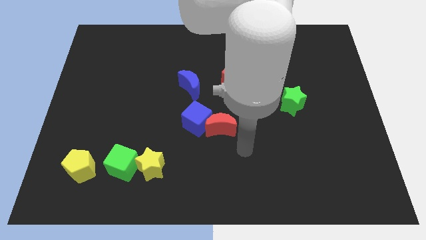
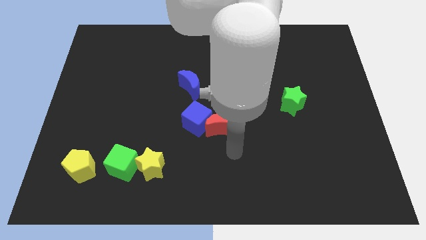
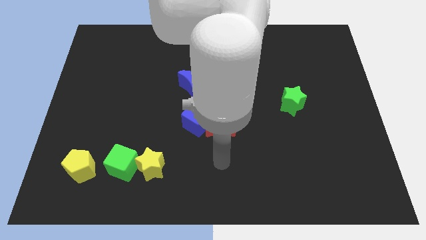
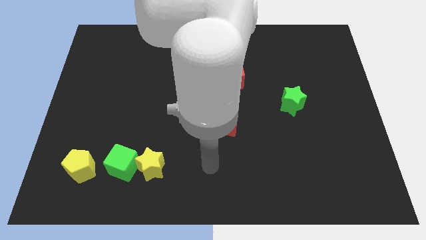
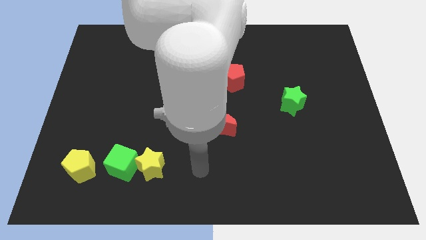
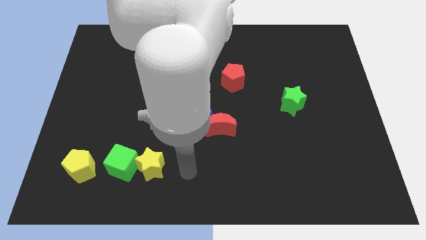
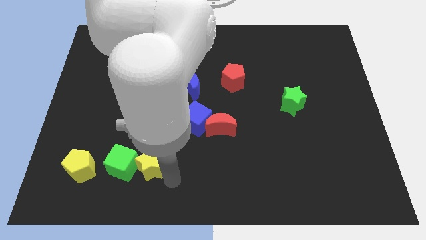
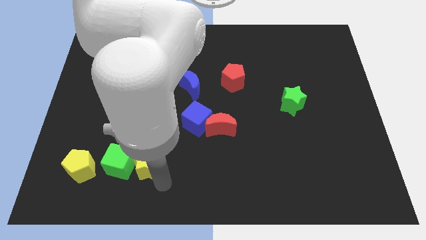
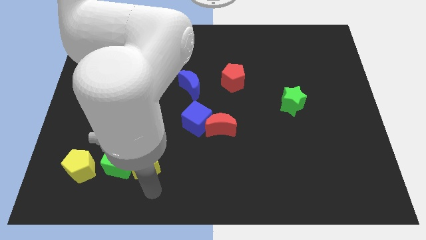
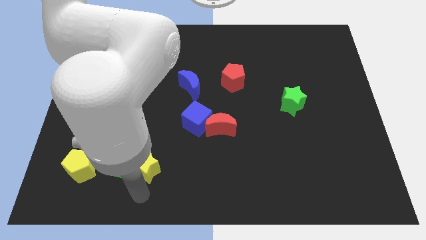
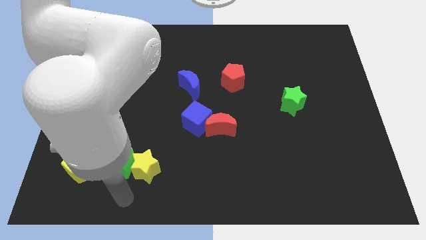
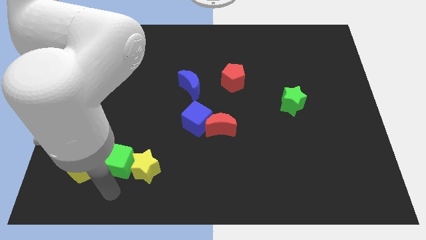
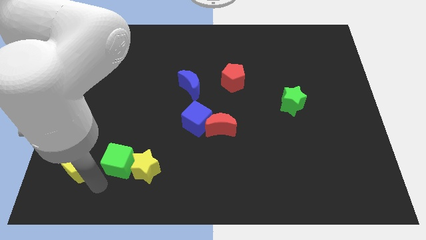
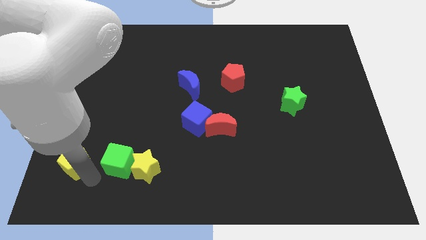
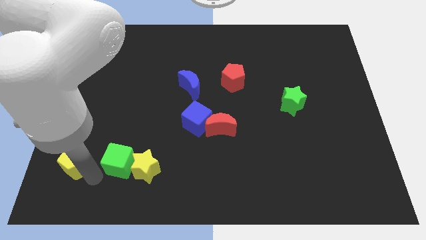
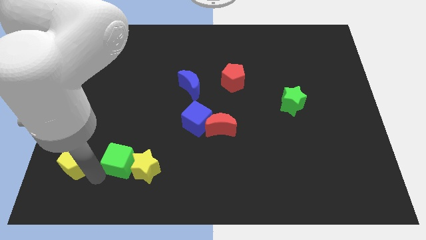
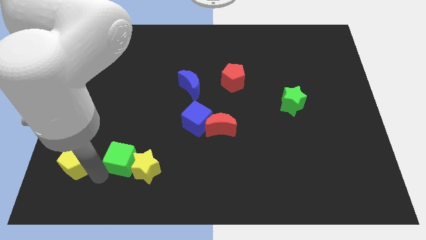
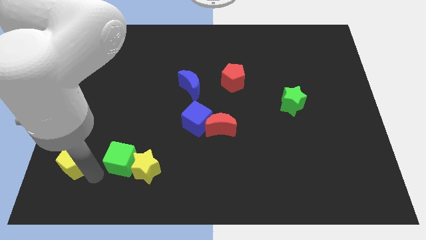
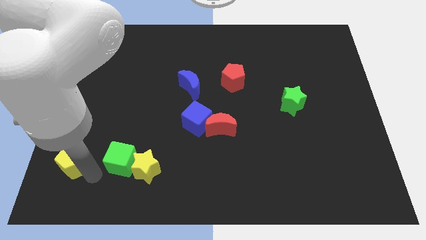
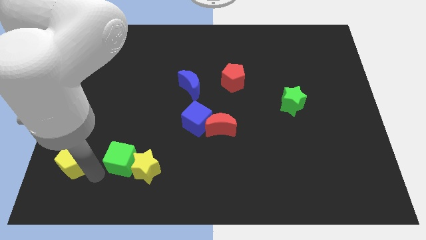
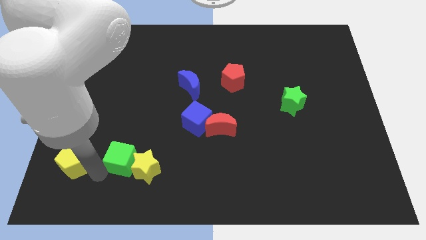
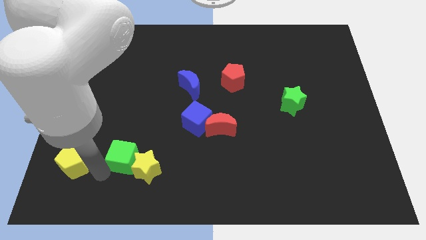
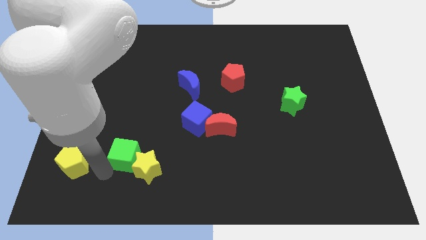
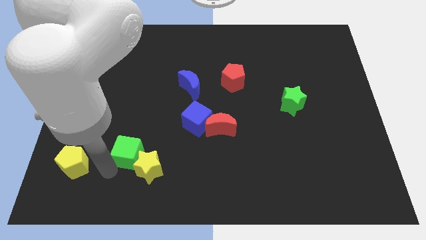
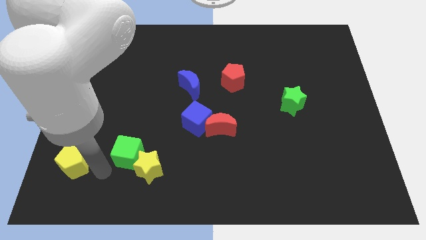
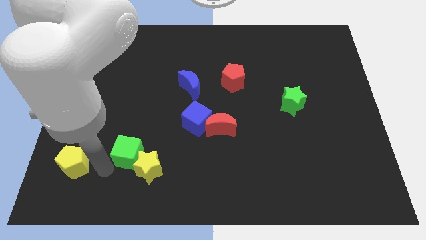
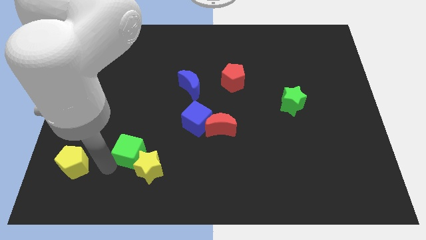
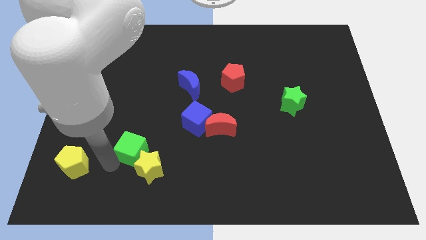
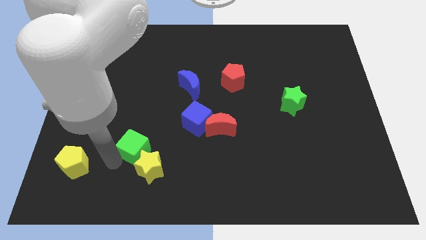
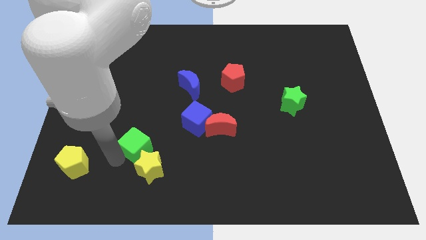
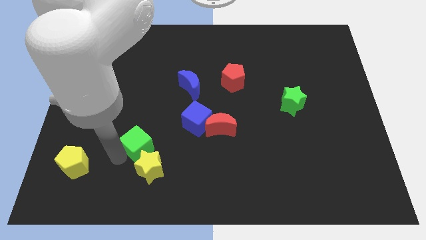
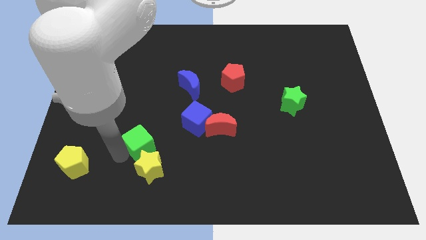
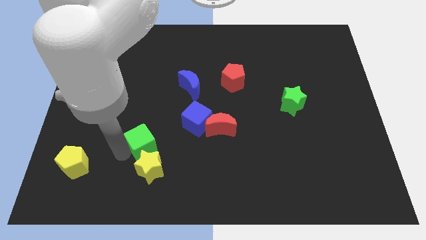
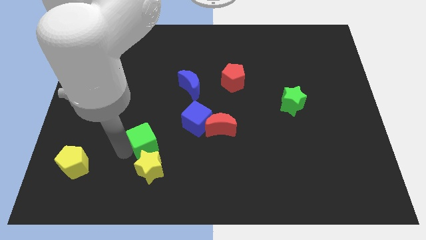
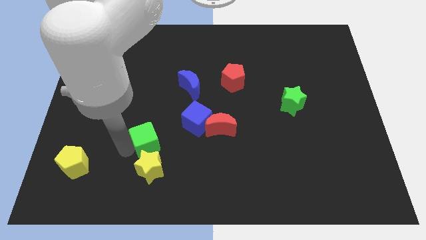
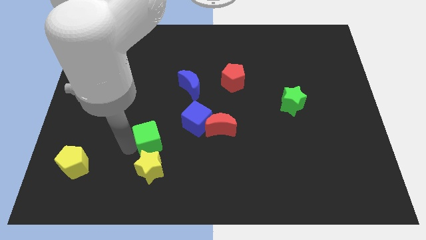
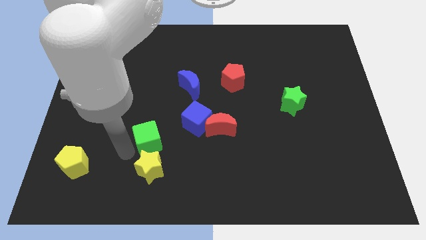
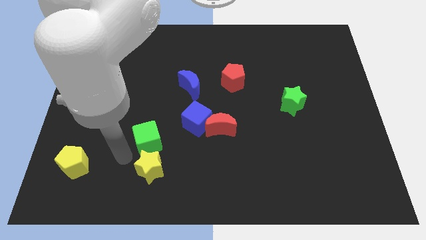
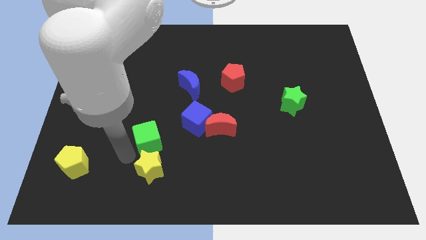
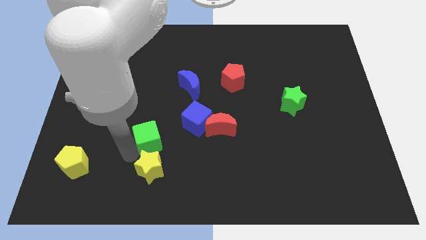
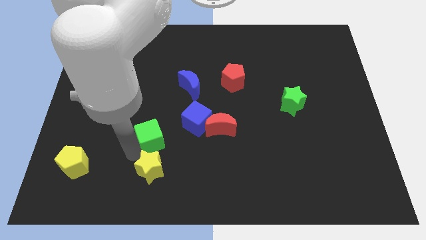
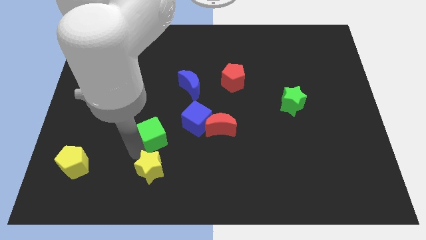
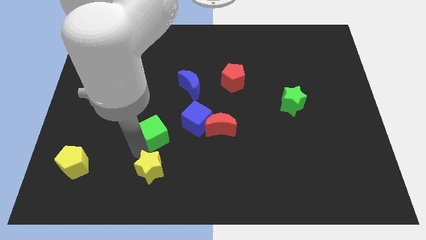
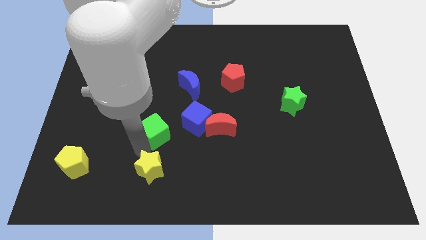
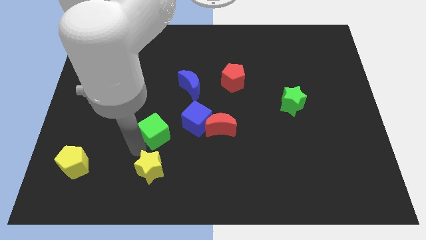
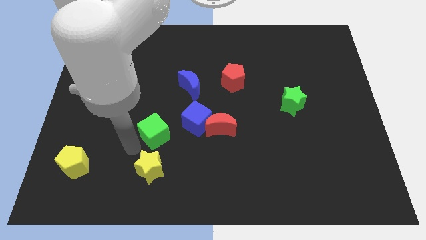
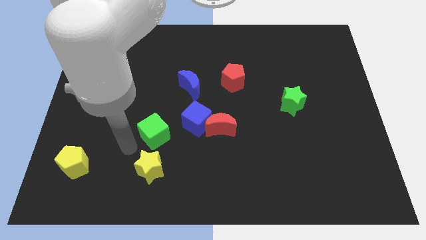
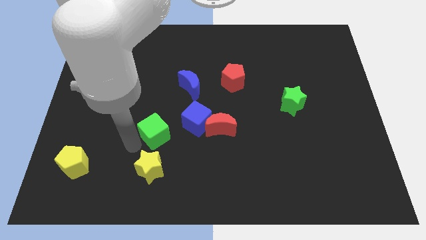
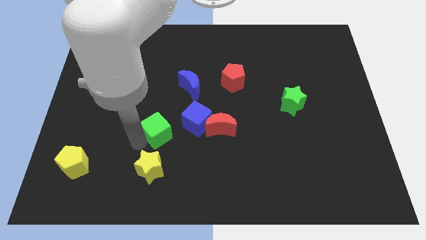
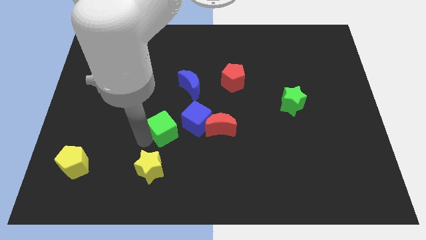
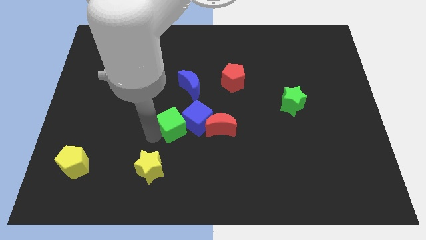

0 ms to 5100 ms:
put the green cube next to the blue cube

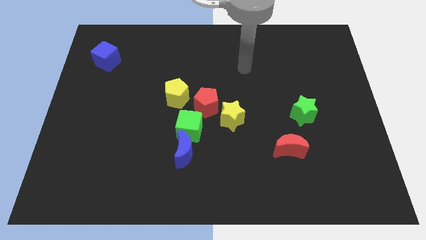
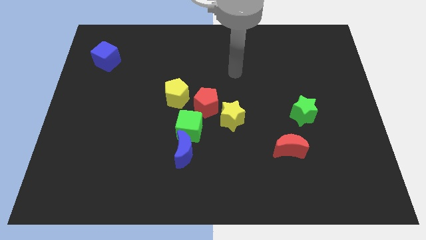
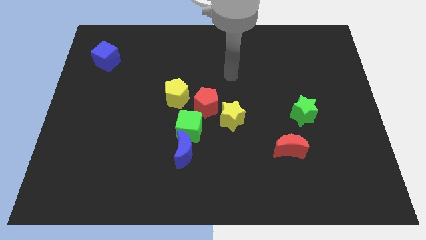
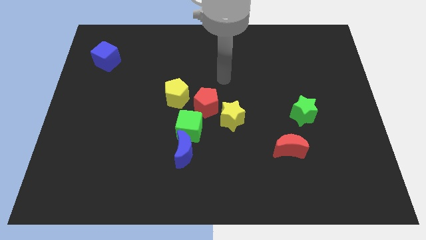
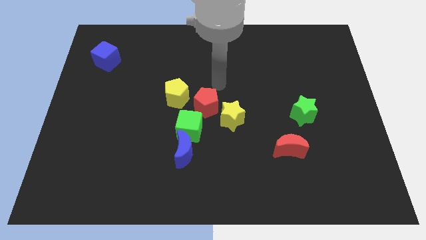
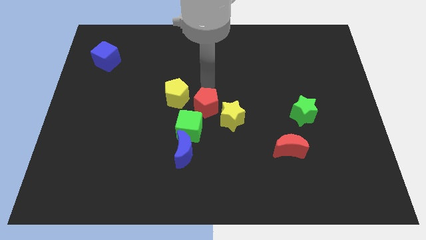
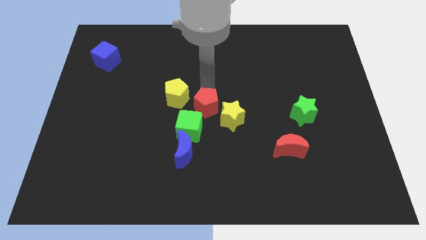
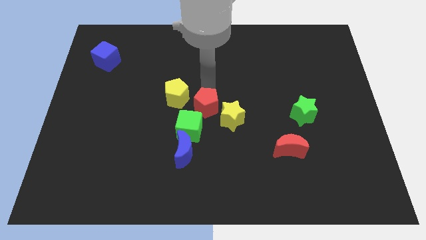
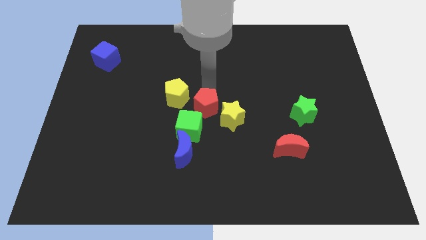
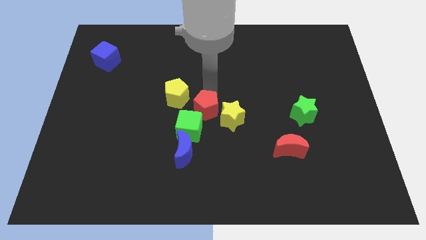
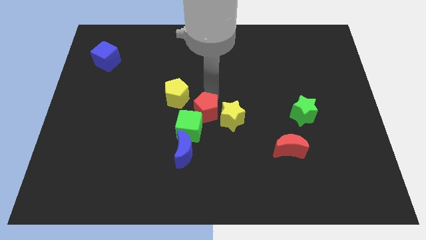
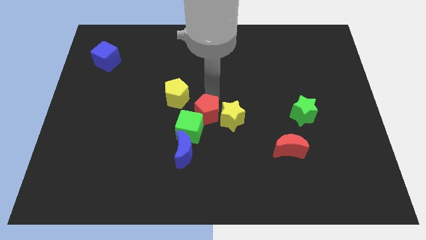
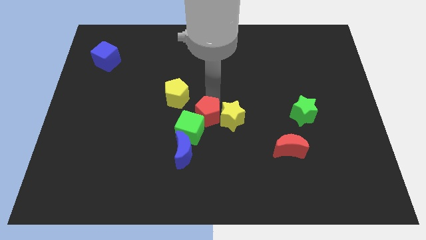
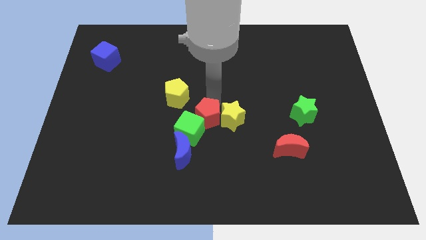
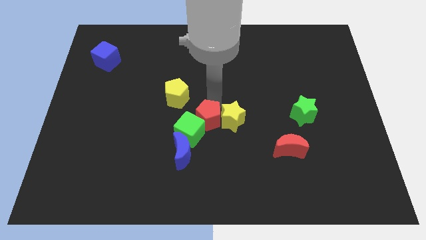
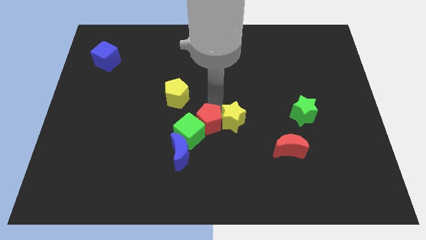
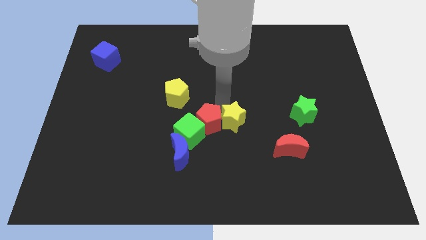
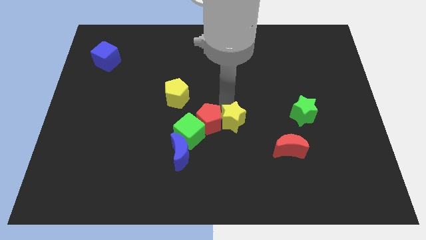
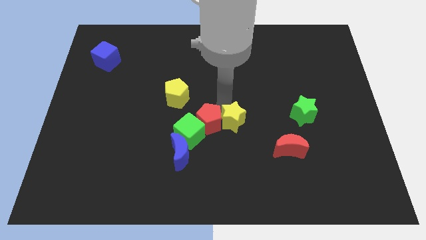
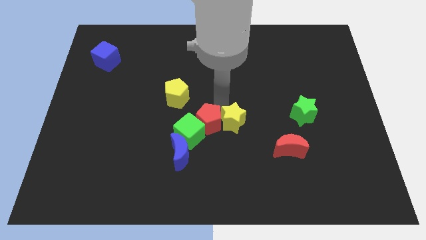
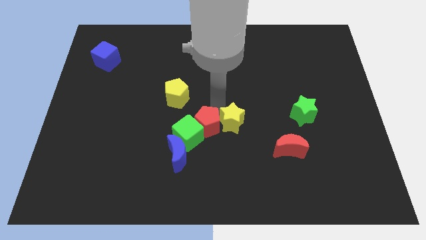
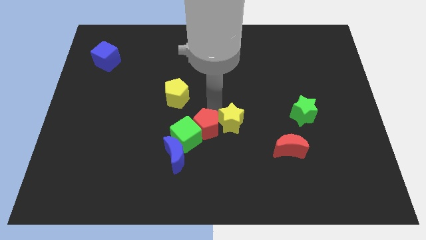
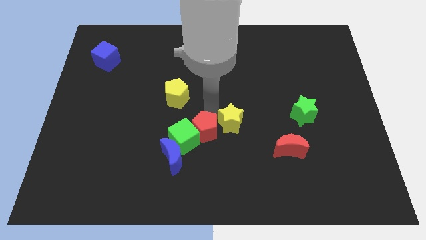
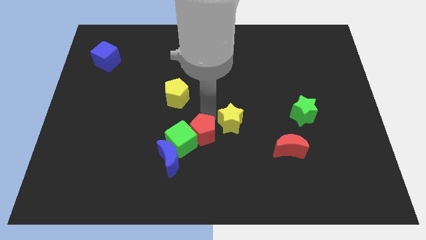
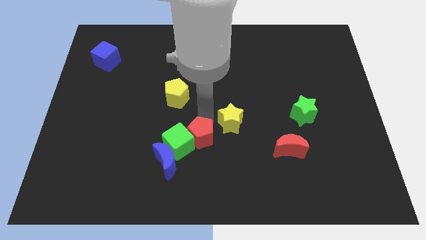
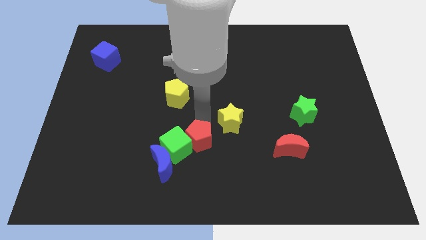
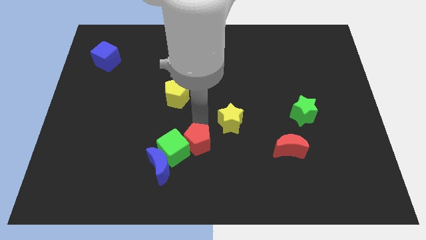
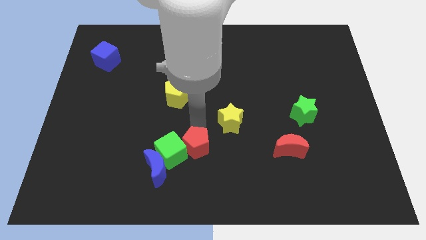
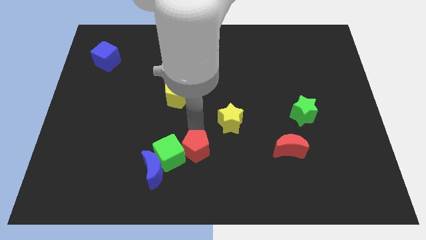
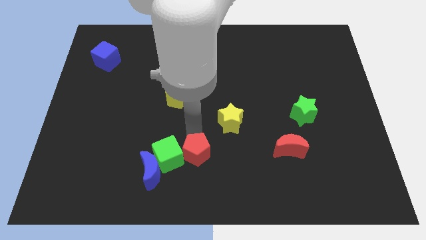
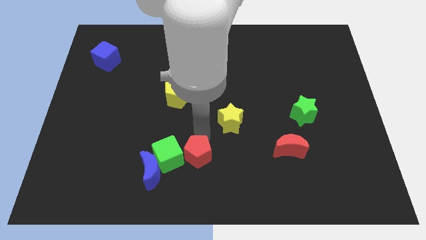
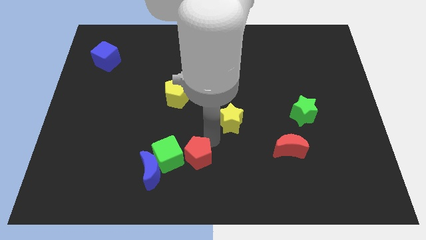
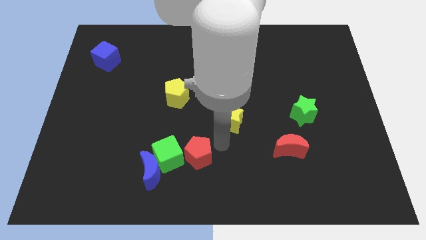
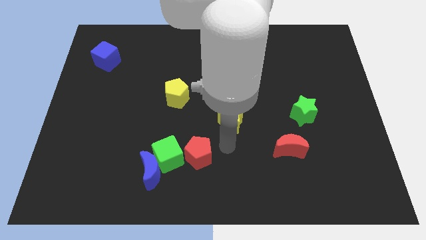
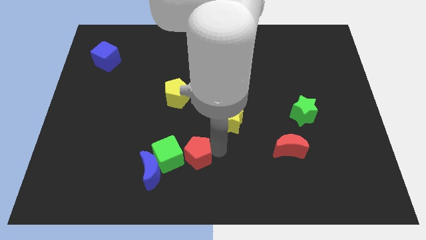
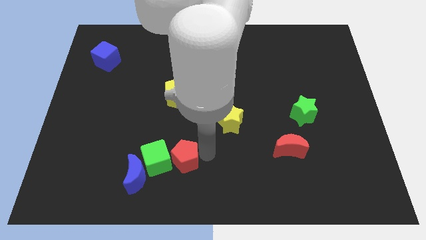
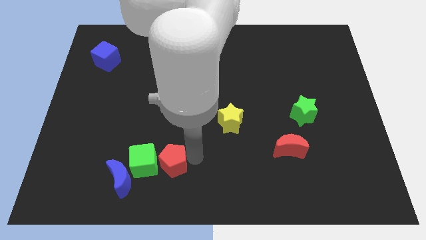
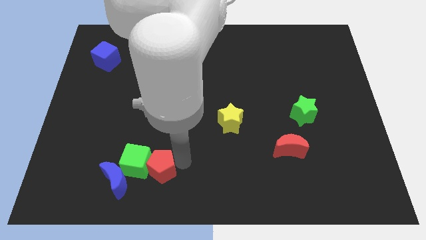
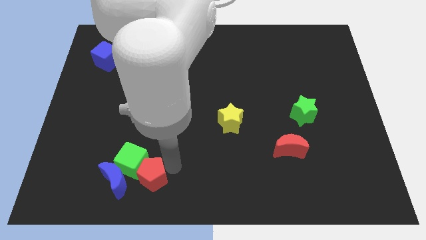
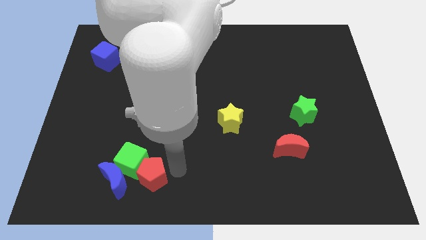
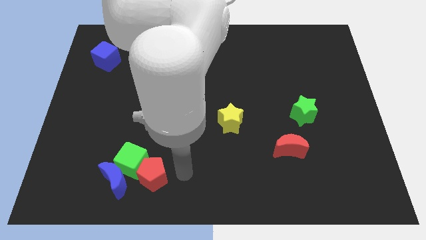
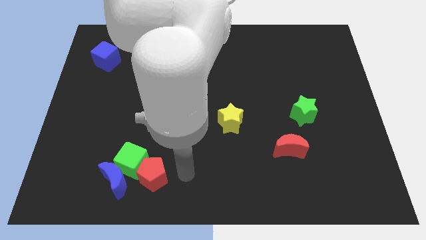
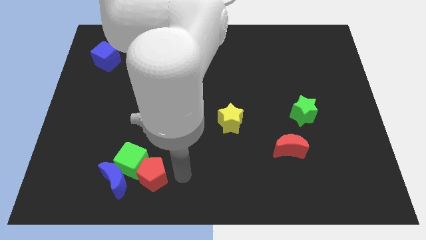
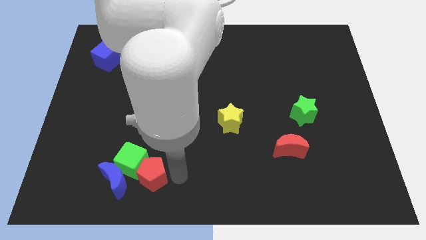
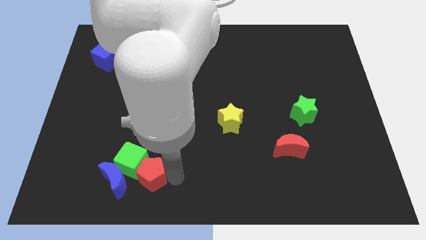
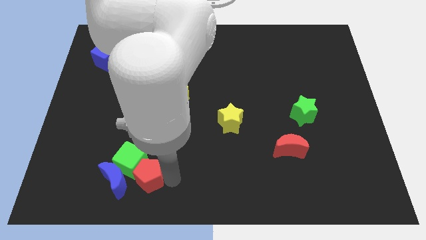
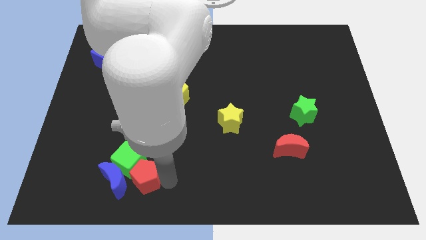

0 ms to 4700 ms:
push the red pentagon close to the blue moon
